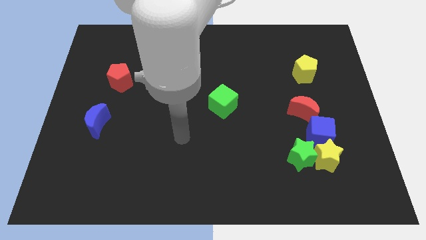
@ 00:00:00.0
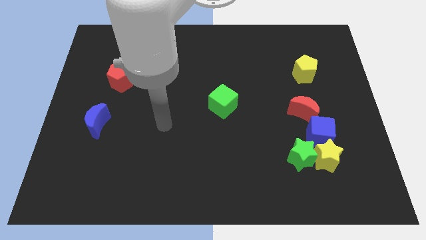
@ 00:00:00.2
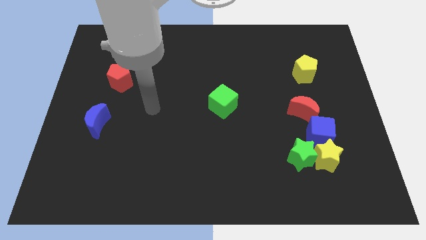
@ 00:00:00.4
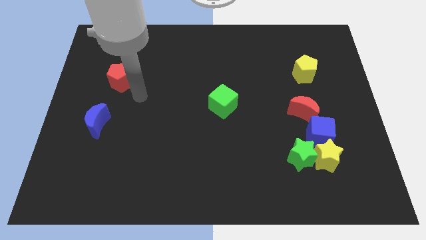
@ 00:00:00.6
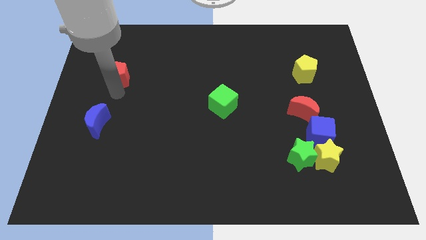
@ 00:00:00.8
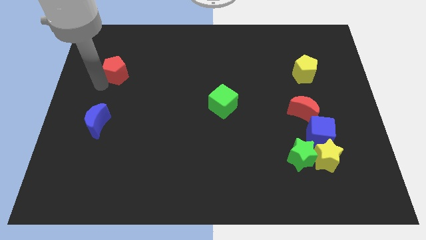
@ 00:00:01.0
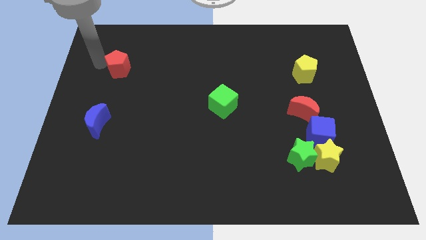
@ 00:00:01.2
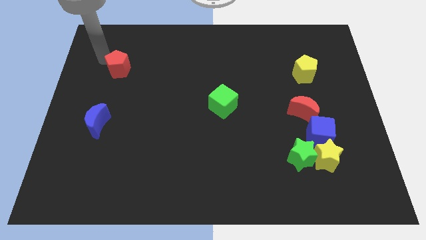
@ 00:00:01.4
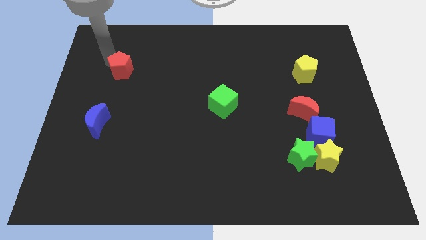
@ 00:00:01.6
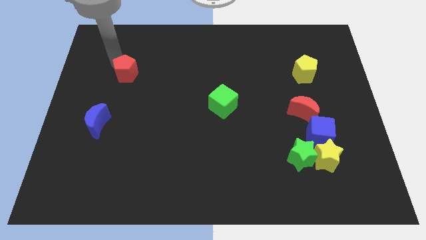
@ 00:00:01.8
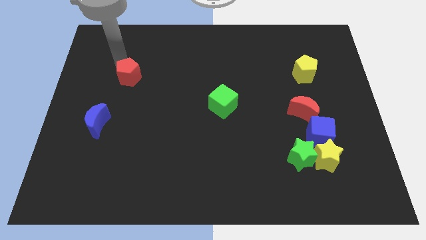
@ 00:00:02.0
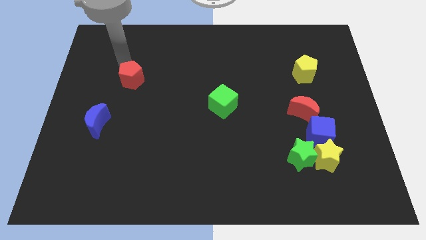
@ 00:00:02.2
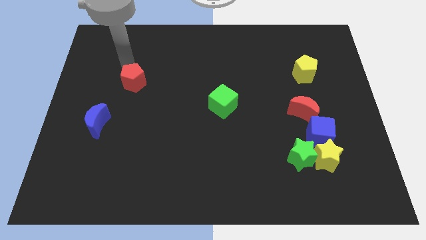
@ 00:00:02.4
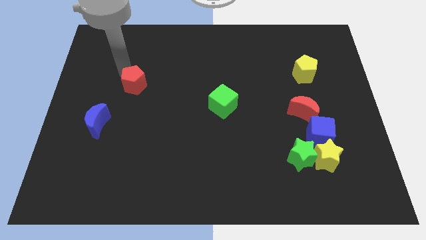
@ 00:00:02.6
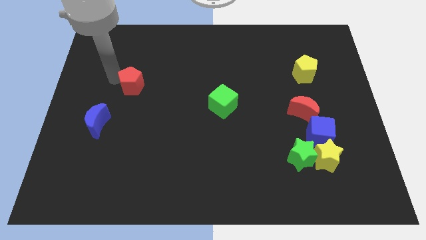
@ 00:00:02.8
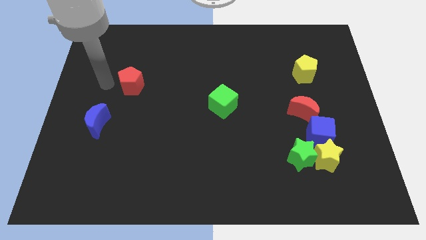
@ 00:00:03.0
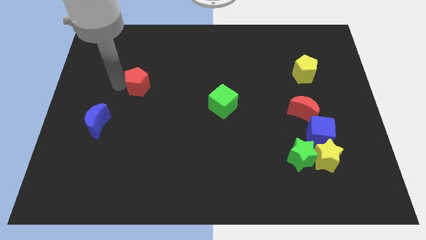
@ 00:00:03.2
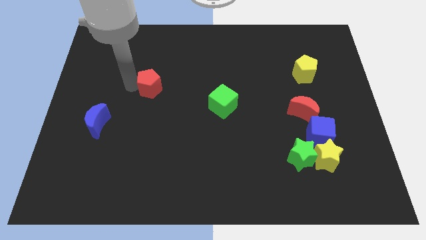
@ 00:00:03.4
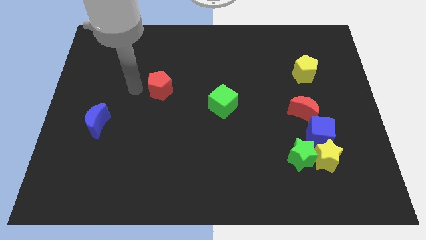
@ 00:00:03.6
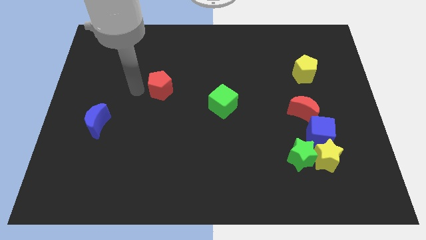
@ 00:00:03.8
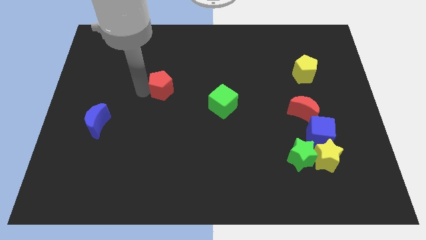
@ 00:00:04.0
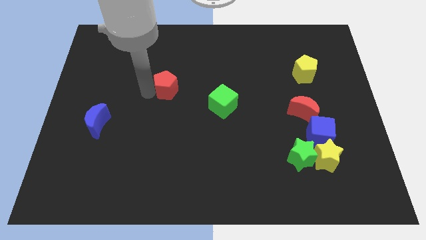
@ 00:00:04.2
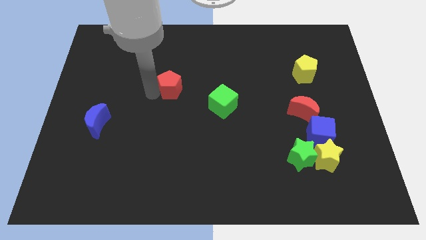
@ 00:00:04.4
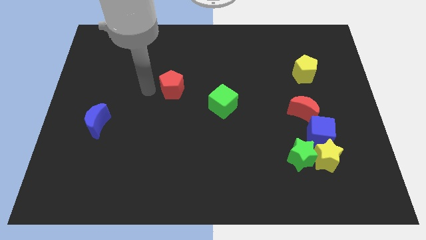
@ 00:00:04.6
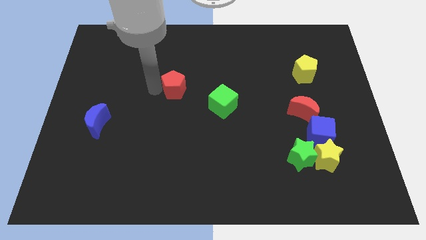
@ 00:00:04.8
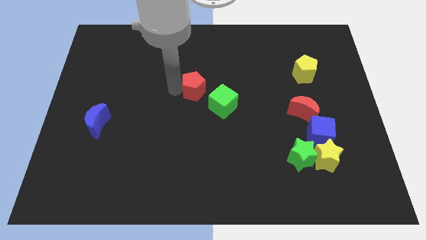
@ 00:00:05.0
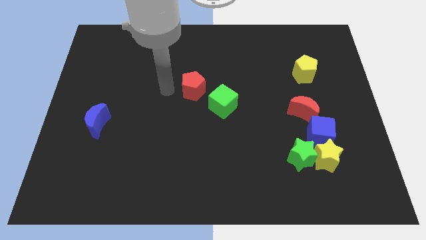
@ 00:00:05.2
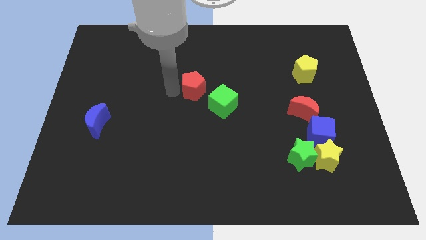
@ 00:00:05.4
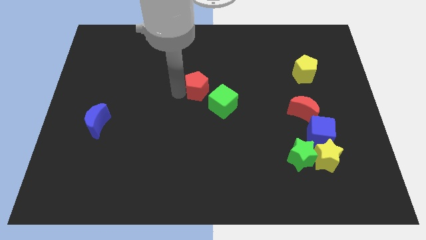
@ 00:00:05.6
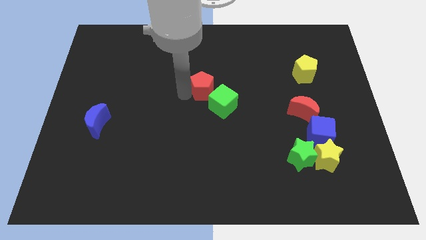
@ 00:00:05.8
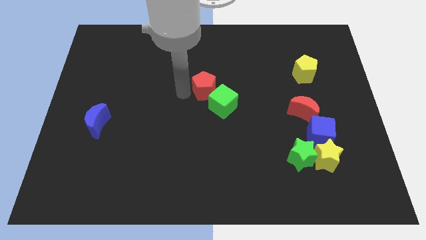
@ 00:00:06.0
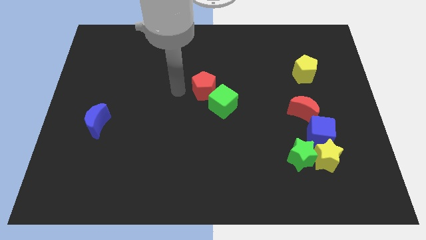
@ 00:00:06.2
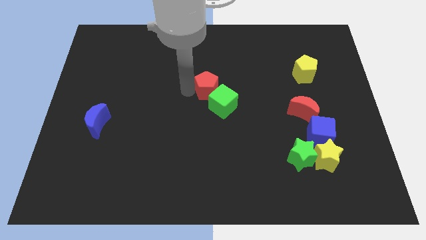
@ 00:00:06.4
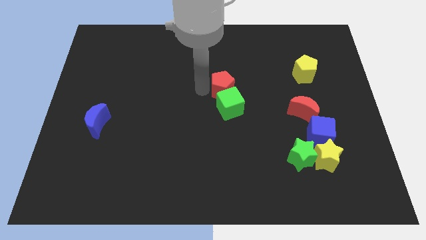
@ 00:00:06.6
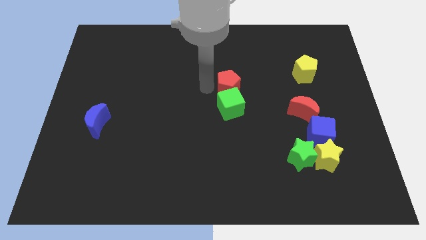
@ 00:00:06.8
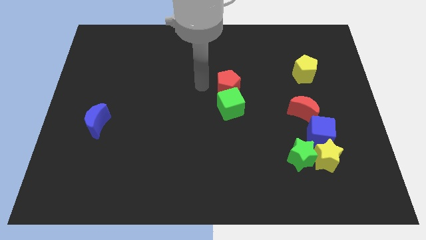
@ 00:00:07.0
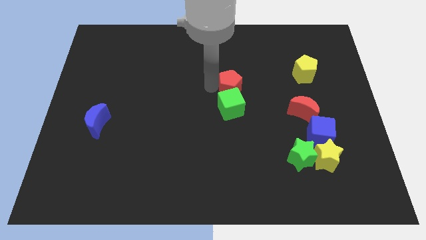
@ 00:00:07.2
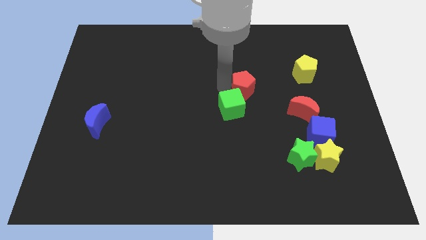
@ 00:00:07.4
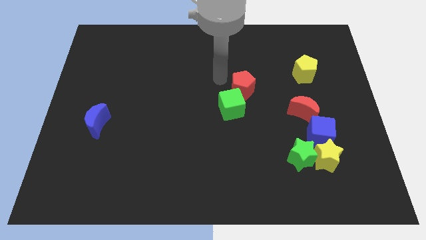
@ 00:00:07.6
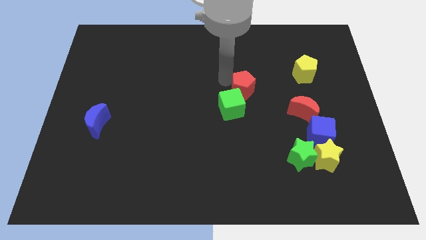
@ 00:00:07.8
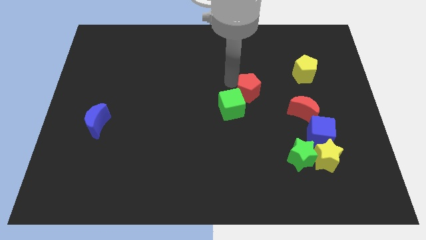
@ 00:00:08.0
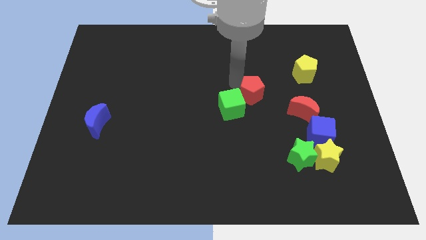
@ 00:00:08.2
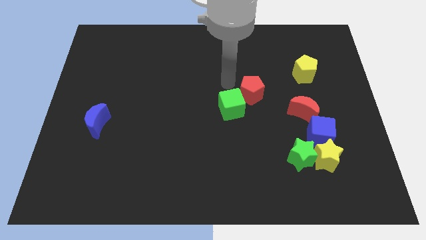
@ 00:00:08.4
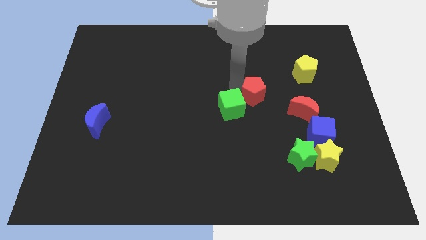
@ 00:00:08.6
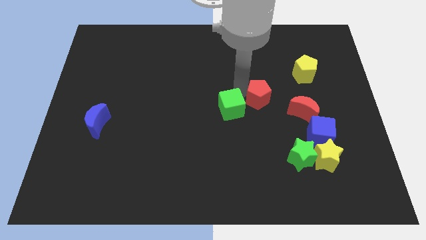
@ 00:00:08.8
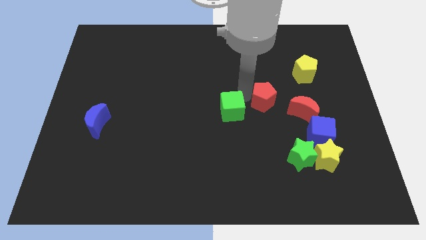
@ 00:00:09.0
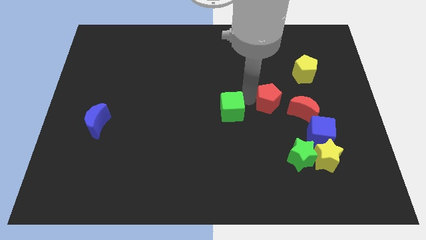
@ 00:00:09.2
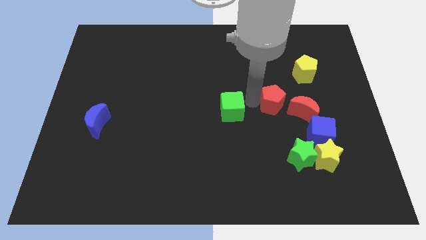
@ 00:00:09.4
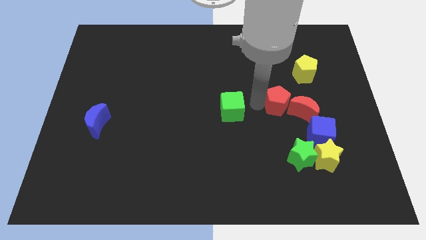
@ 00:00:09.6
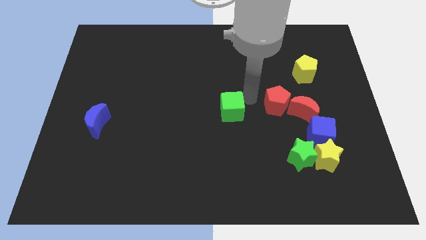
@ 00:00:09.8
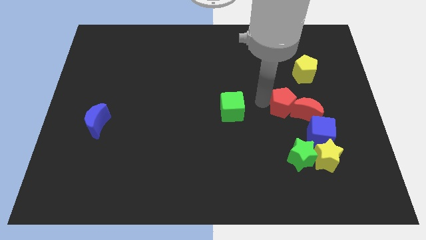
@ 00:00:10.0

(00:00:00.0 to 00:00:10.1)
put the red pentagon towards the red moon

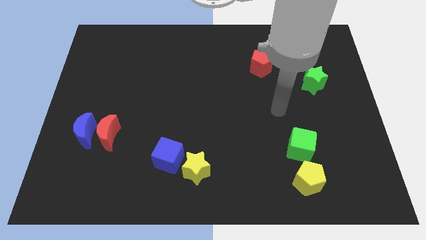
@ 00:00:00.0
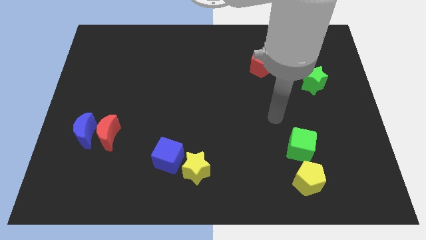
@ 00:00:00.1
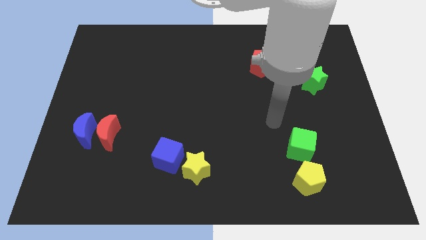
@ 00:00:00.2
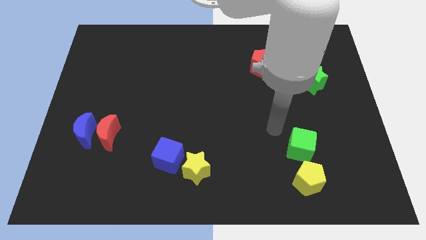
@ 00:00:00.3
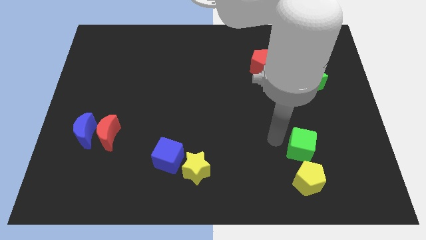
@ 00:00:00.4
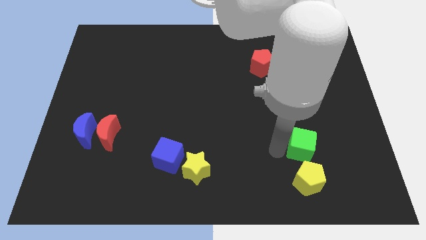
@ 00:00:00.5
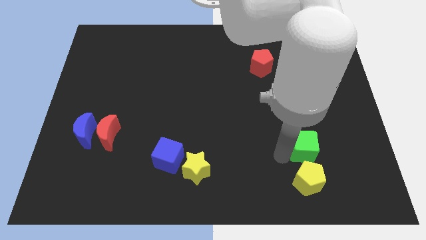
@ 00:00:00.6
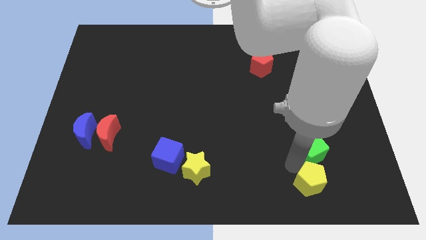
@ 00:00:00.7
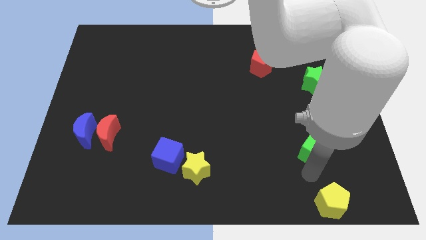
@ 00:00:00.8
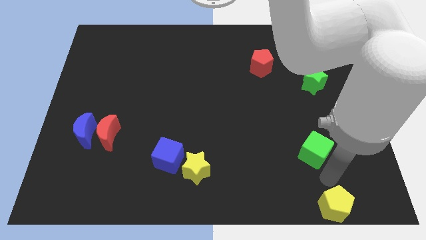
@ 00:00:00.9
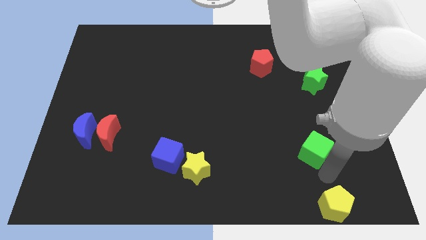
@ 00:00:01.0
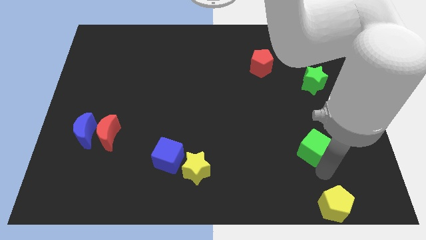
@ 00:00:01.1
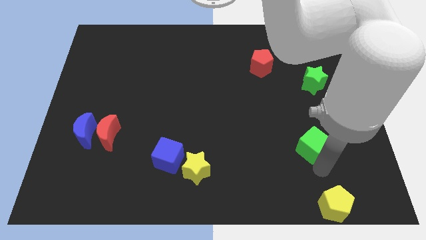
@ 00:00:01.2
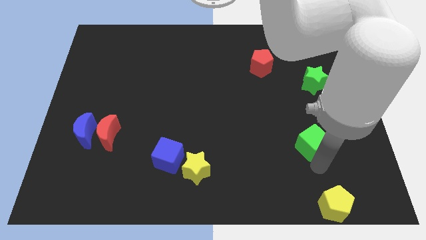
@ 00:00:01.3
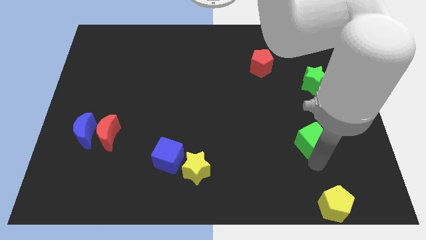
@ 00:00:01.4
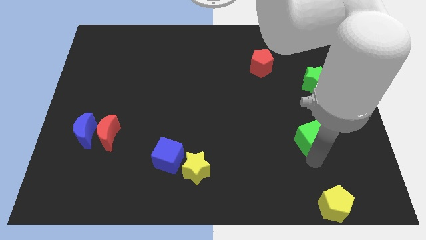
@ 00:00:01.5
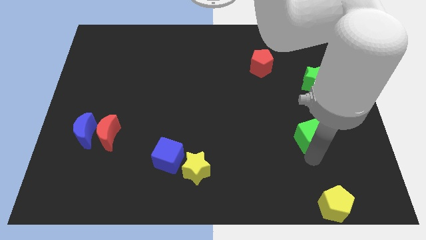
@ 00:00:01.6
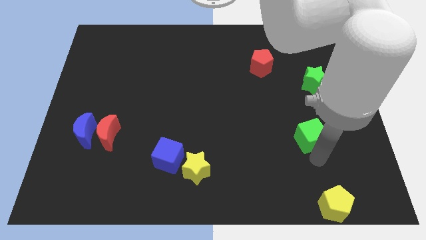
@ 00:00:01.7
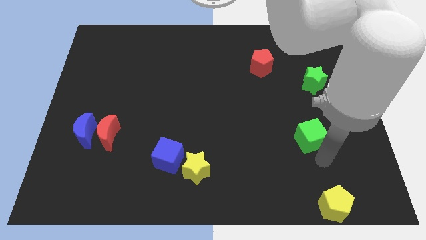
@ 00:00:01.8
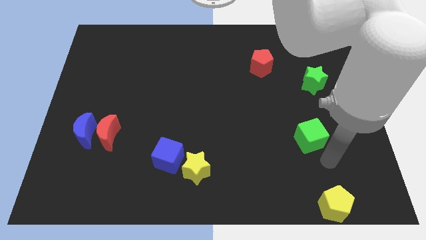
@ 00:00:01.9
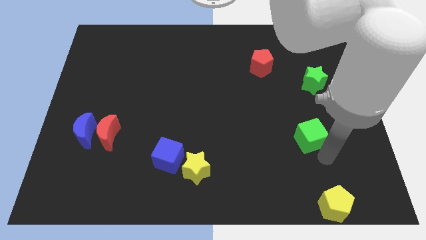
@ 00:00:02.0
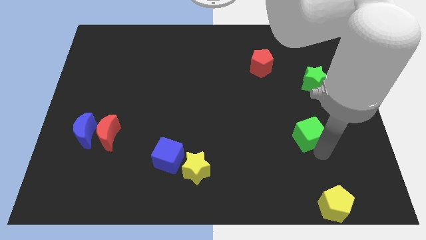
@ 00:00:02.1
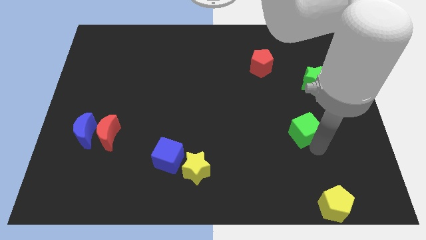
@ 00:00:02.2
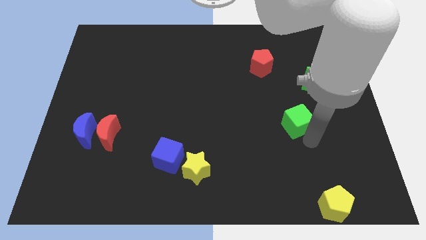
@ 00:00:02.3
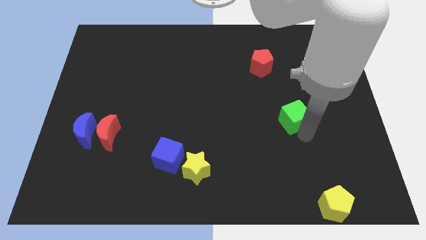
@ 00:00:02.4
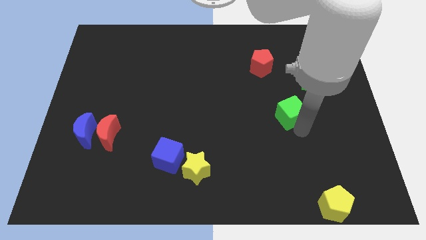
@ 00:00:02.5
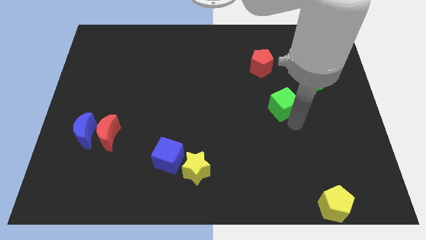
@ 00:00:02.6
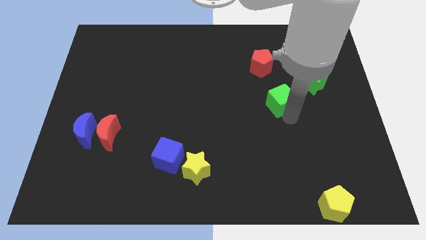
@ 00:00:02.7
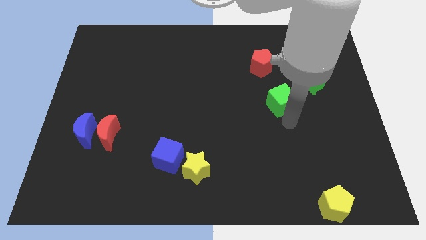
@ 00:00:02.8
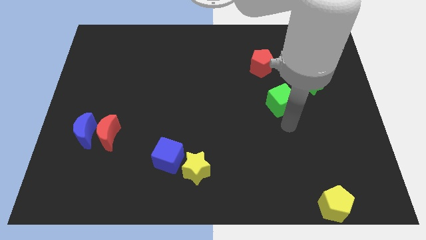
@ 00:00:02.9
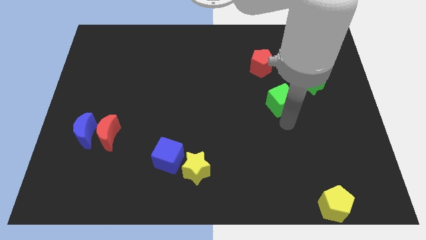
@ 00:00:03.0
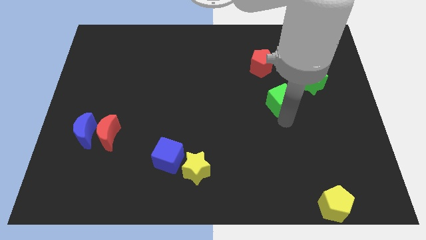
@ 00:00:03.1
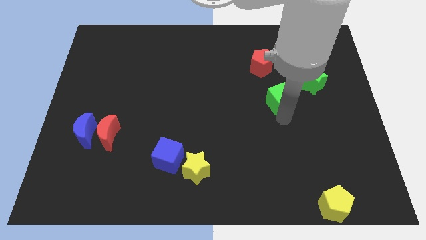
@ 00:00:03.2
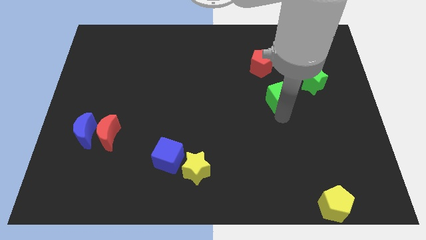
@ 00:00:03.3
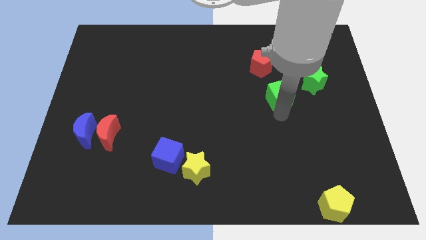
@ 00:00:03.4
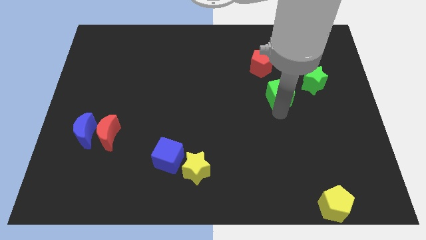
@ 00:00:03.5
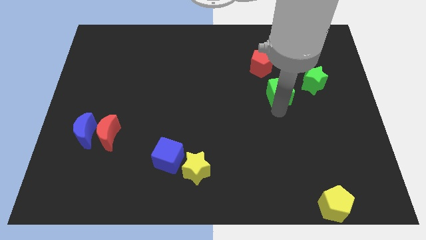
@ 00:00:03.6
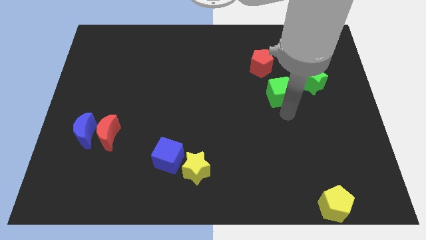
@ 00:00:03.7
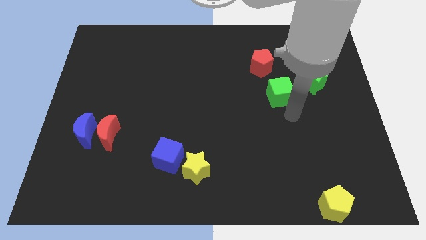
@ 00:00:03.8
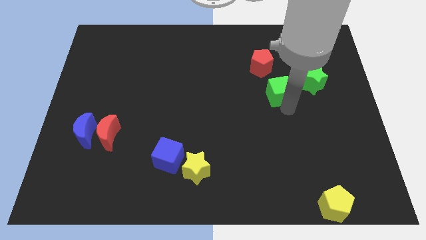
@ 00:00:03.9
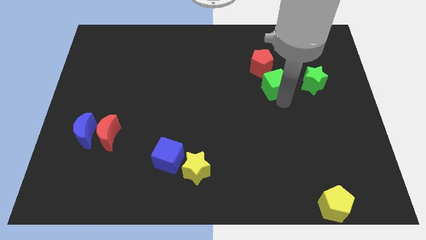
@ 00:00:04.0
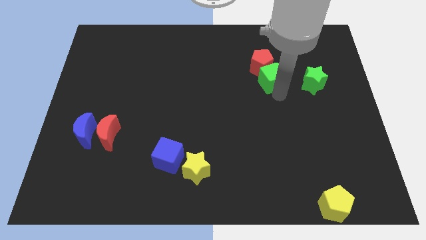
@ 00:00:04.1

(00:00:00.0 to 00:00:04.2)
move the green cube close to the red pentagon
